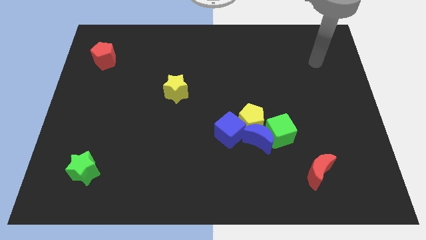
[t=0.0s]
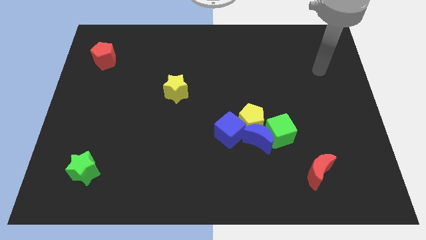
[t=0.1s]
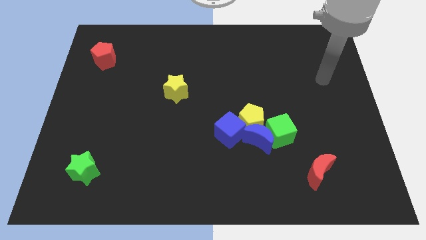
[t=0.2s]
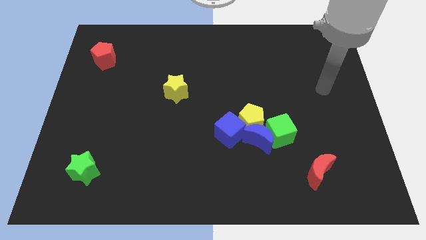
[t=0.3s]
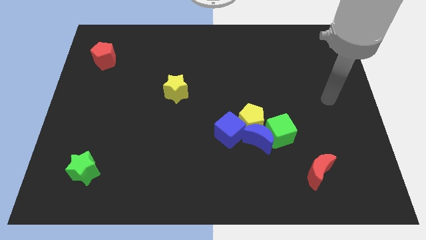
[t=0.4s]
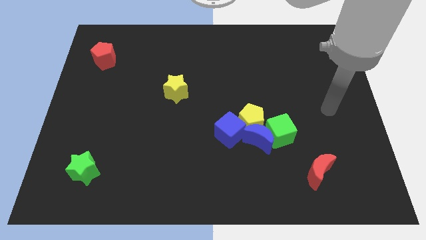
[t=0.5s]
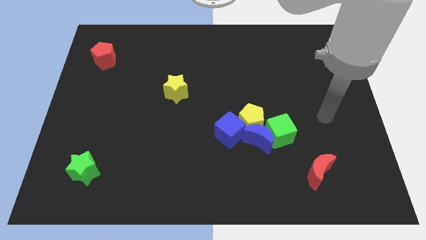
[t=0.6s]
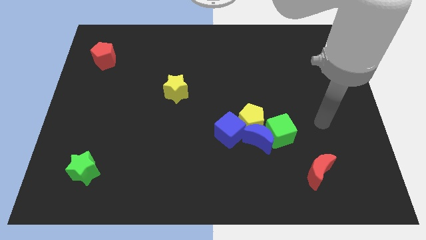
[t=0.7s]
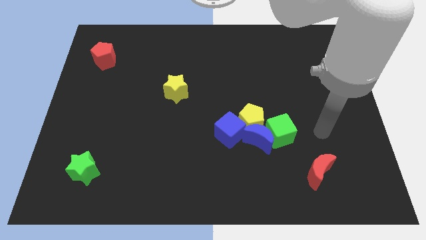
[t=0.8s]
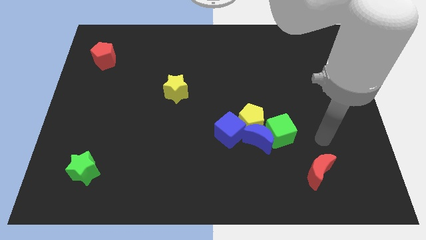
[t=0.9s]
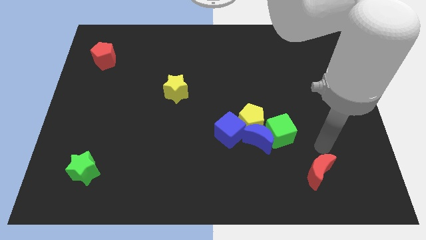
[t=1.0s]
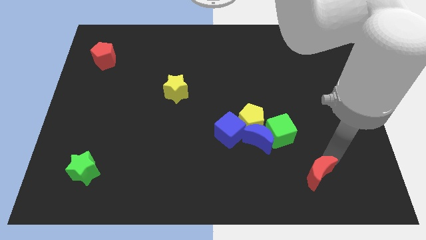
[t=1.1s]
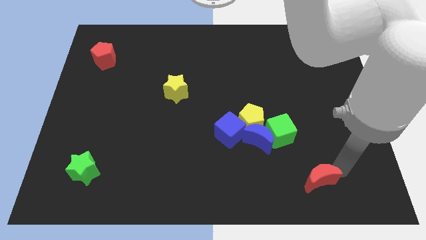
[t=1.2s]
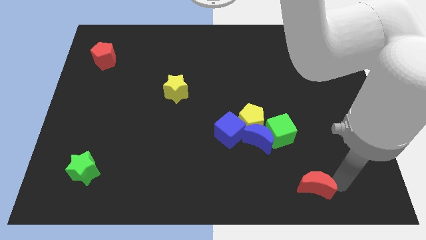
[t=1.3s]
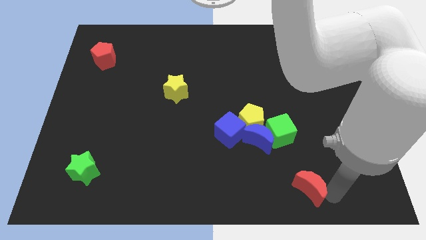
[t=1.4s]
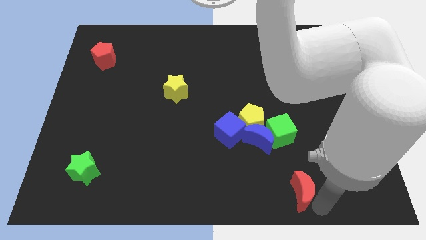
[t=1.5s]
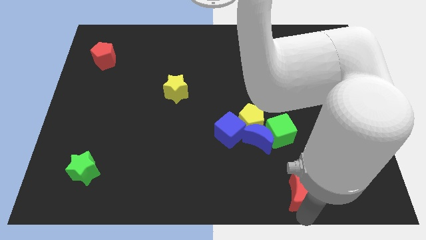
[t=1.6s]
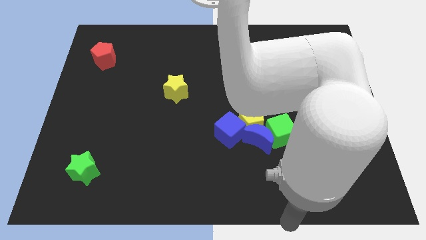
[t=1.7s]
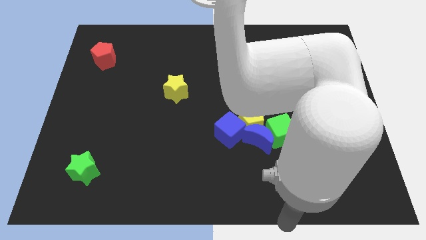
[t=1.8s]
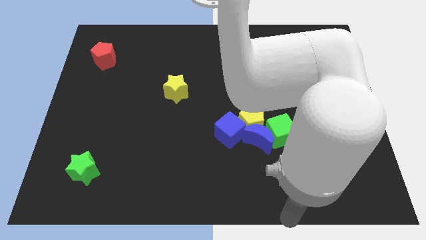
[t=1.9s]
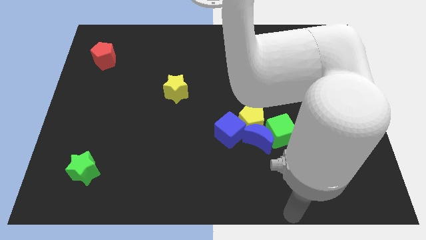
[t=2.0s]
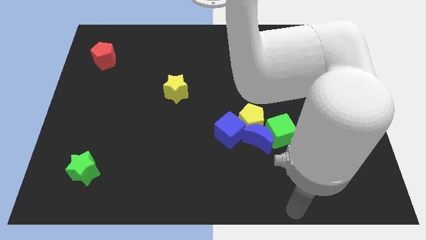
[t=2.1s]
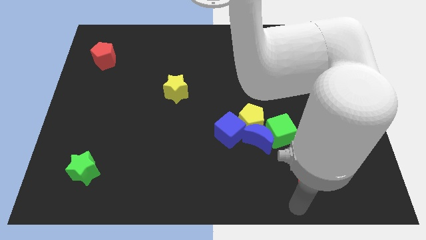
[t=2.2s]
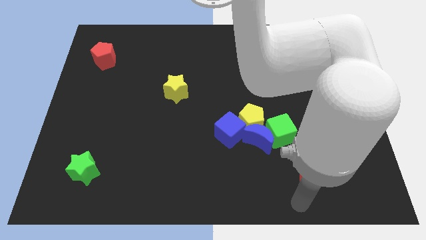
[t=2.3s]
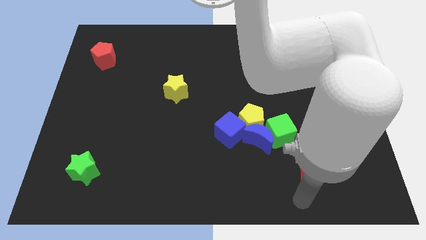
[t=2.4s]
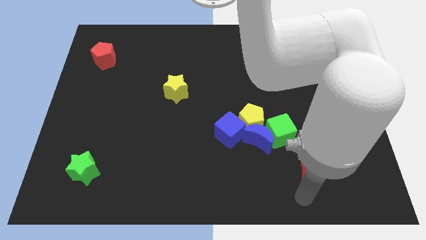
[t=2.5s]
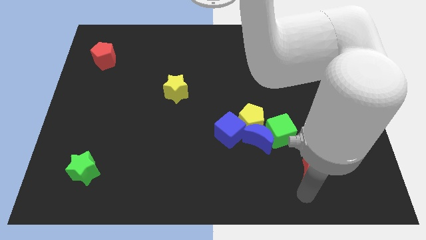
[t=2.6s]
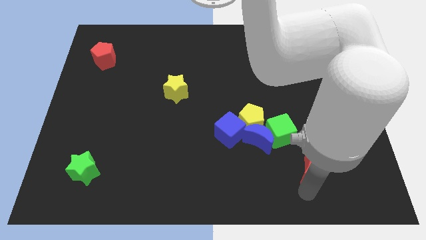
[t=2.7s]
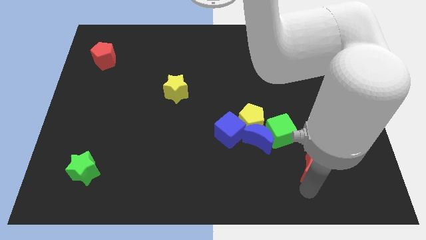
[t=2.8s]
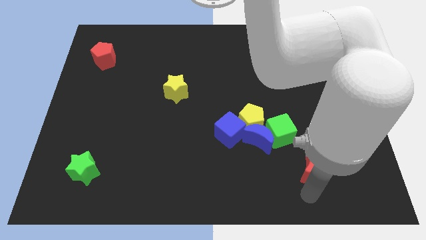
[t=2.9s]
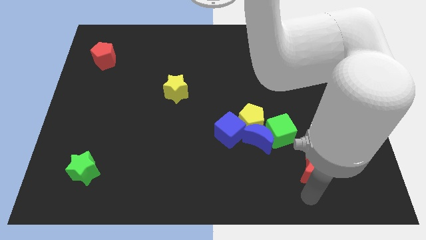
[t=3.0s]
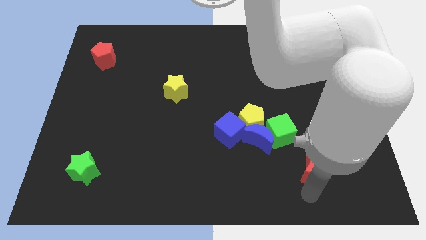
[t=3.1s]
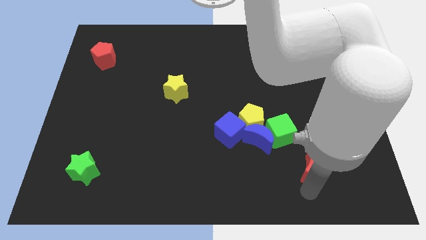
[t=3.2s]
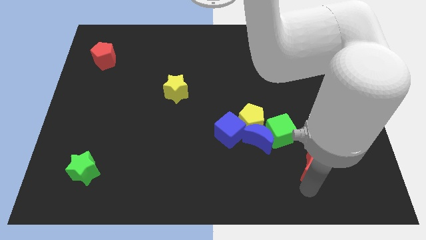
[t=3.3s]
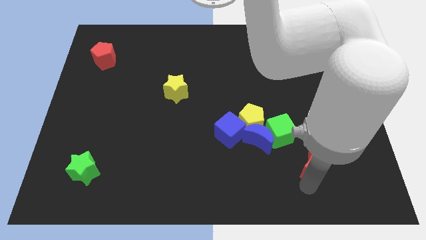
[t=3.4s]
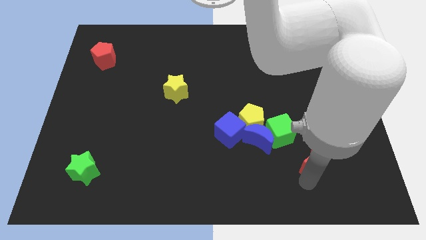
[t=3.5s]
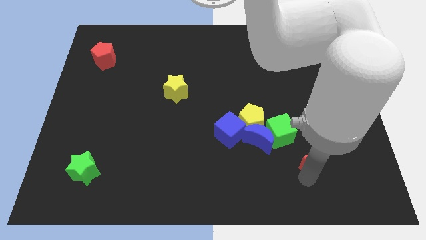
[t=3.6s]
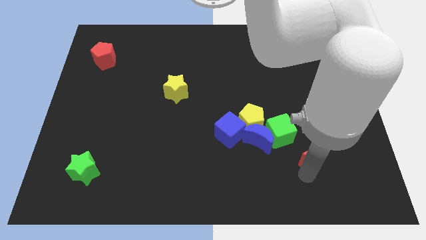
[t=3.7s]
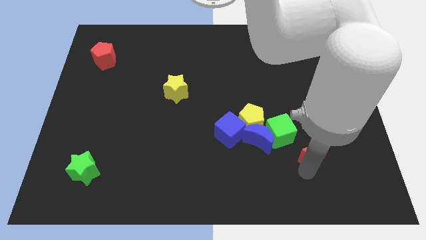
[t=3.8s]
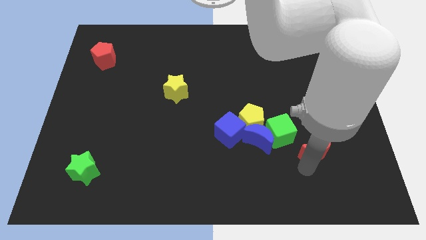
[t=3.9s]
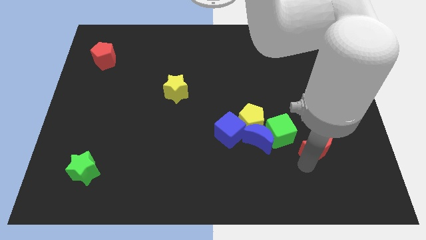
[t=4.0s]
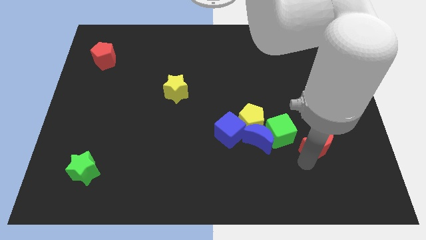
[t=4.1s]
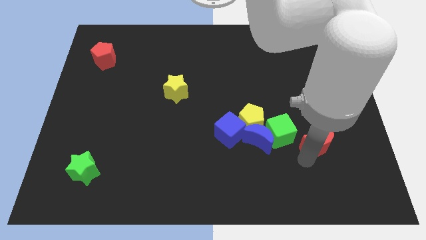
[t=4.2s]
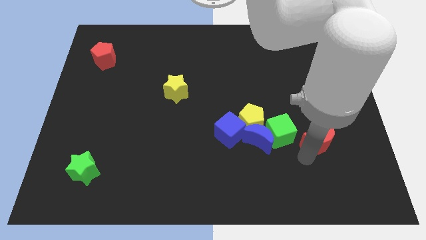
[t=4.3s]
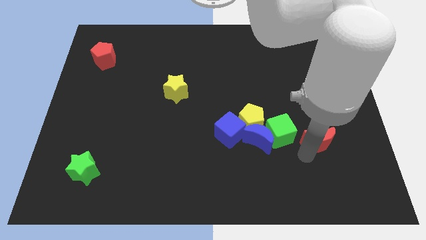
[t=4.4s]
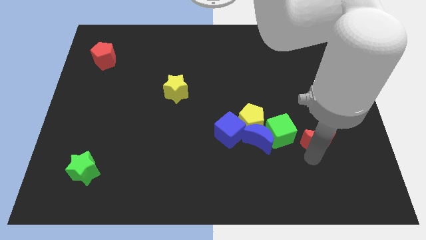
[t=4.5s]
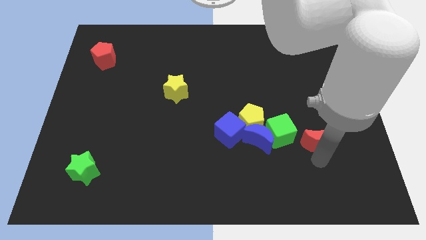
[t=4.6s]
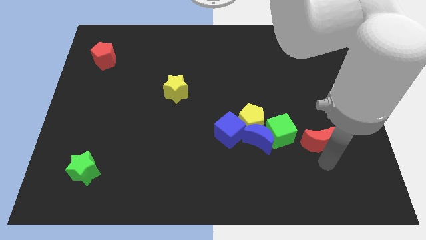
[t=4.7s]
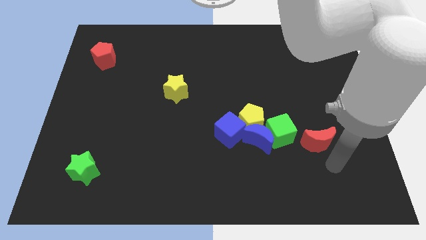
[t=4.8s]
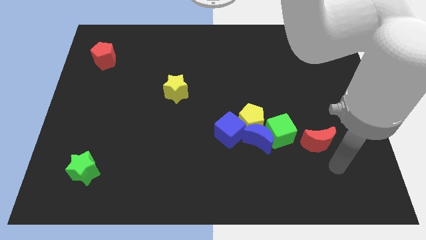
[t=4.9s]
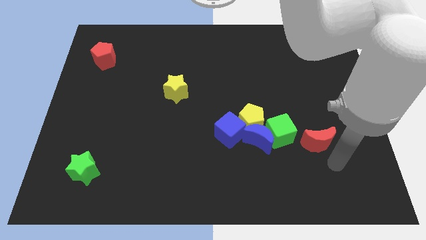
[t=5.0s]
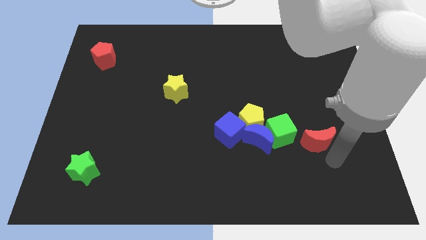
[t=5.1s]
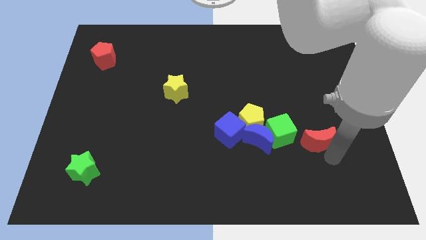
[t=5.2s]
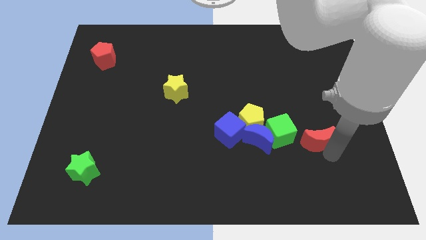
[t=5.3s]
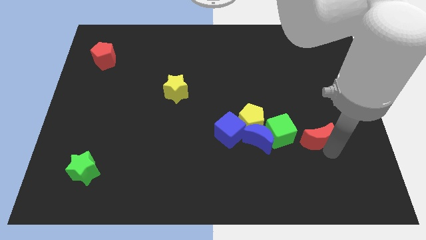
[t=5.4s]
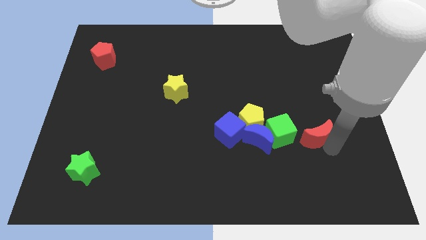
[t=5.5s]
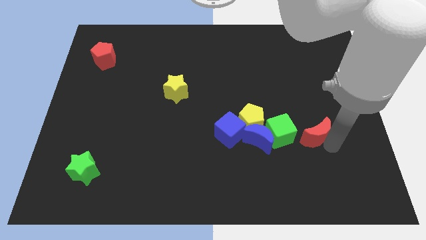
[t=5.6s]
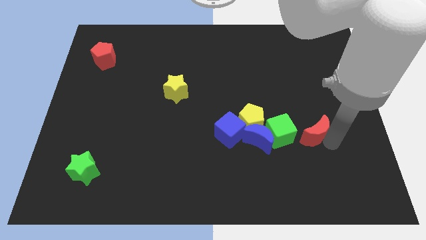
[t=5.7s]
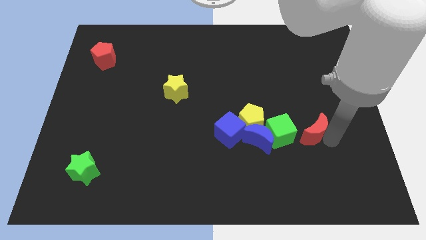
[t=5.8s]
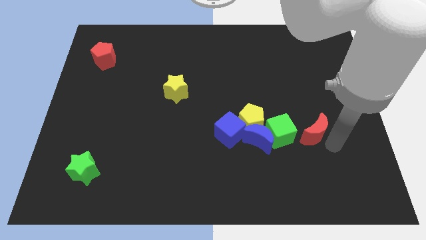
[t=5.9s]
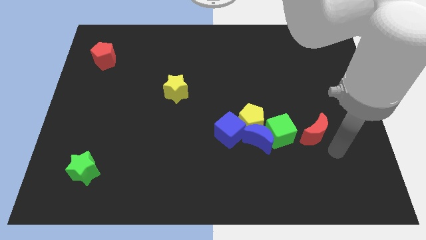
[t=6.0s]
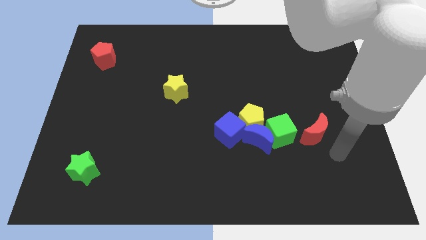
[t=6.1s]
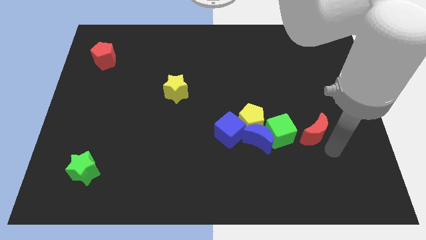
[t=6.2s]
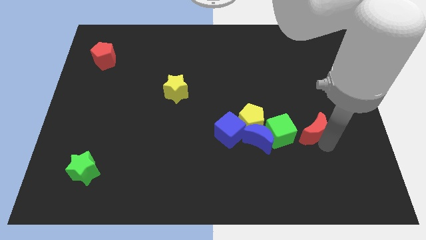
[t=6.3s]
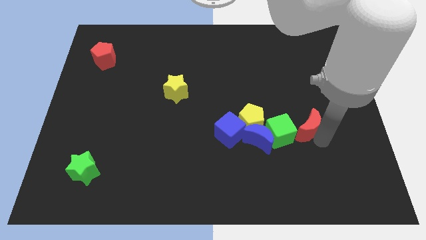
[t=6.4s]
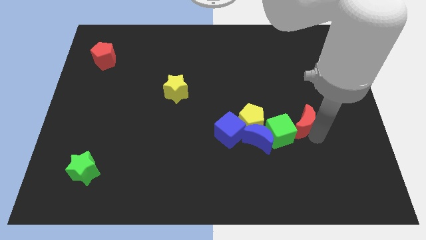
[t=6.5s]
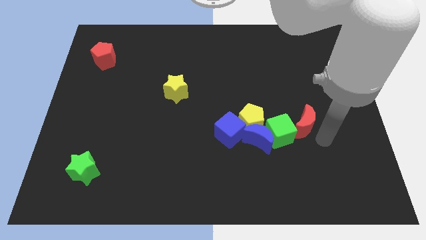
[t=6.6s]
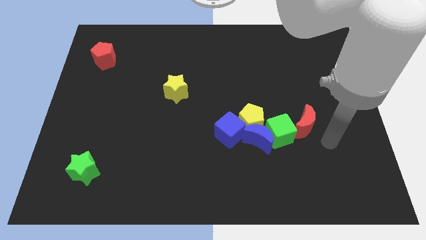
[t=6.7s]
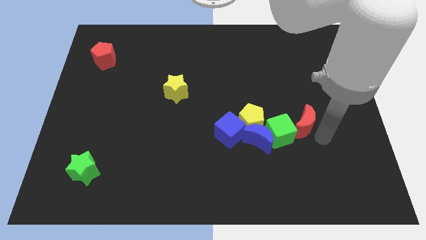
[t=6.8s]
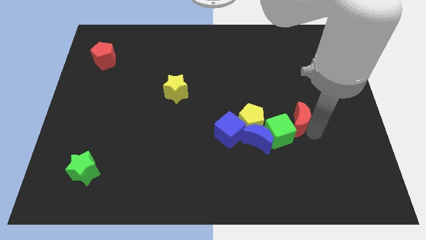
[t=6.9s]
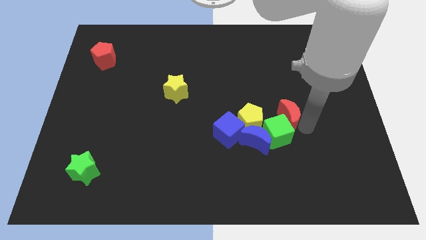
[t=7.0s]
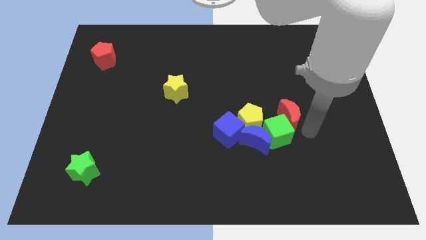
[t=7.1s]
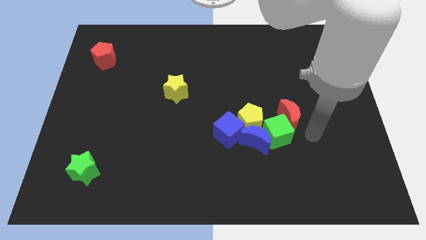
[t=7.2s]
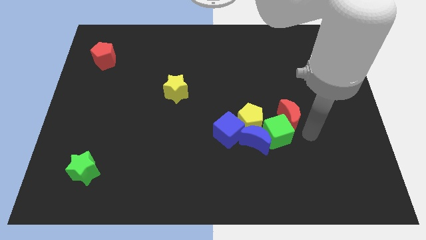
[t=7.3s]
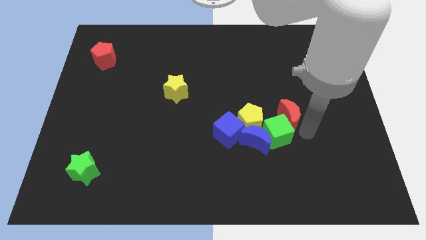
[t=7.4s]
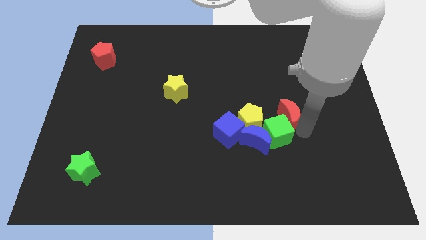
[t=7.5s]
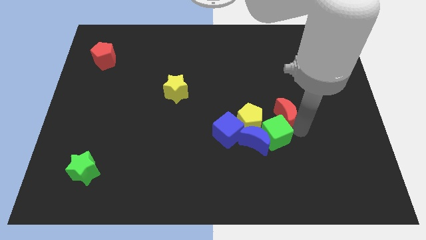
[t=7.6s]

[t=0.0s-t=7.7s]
slide the red moon to the top right side of the yellow pentagon
